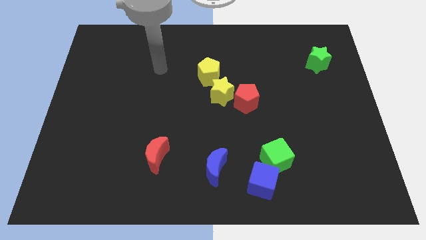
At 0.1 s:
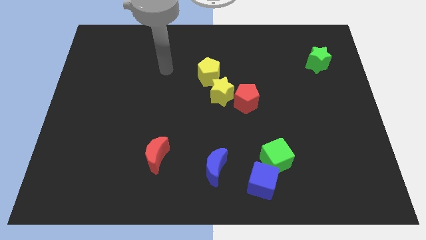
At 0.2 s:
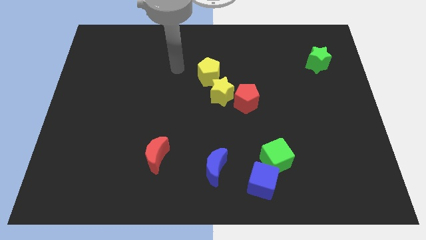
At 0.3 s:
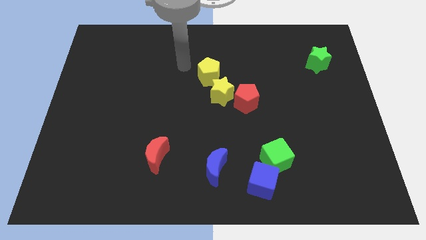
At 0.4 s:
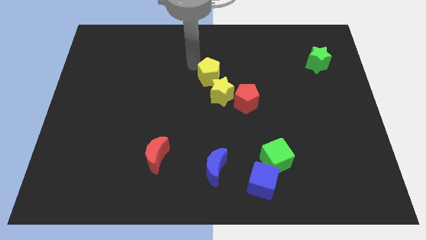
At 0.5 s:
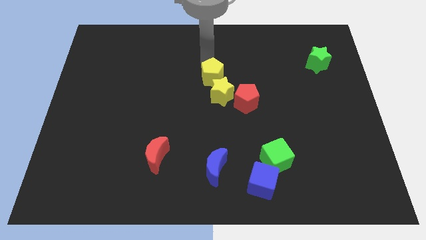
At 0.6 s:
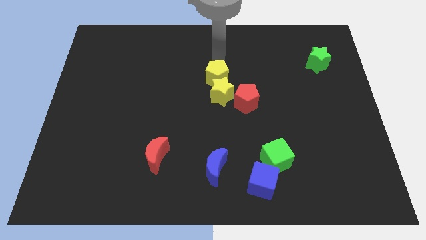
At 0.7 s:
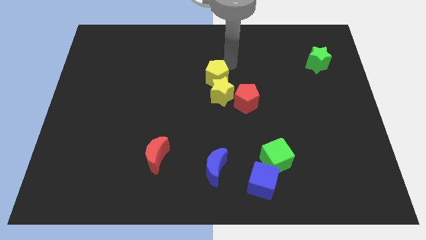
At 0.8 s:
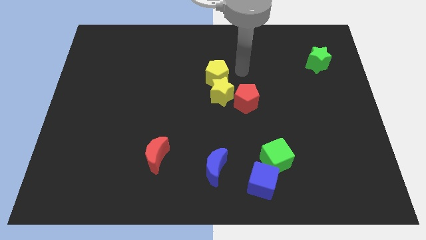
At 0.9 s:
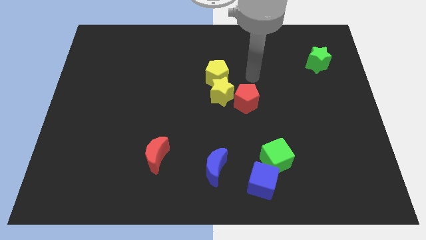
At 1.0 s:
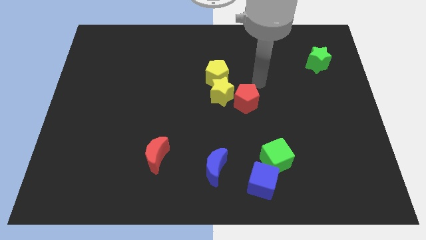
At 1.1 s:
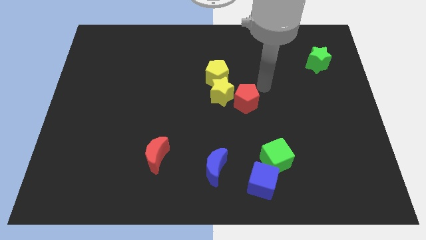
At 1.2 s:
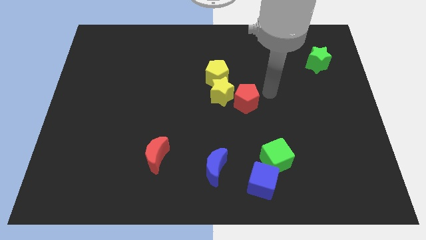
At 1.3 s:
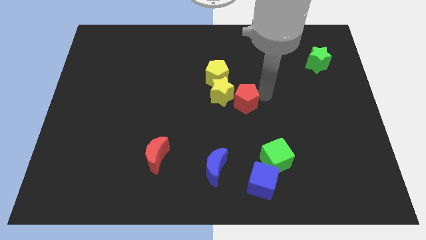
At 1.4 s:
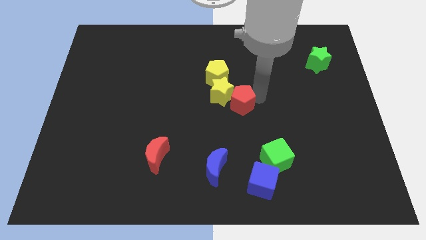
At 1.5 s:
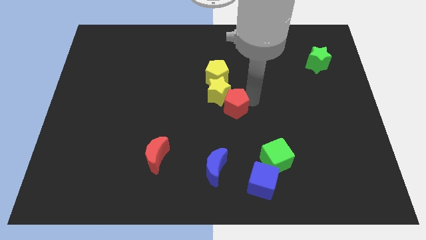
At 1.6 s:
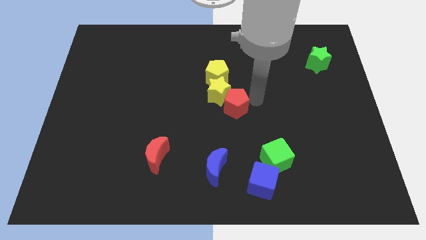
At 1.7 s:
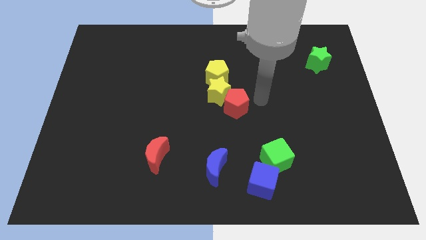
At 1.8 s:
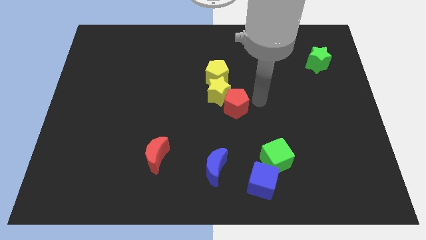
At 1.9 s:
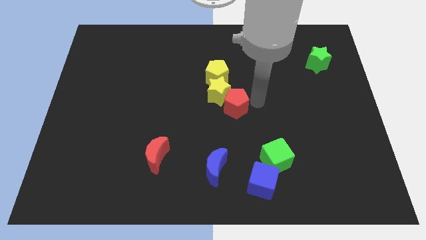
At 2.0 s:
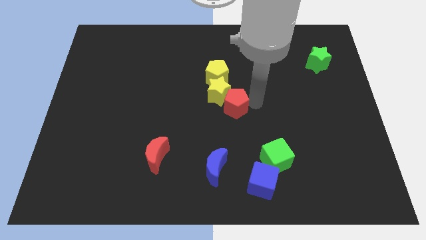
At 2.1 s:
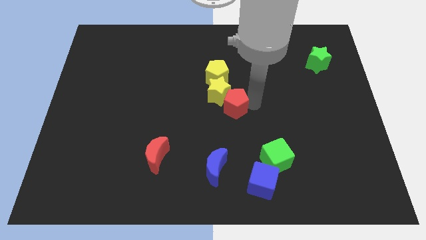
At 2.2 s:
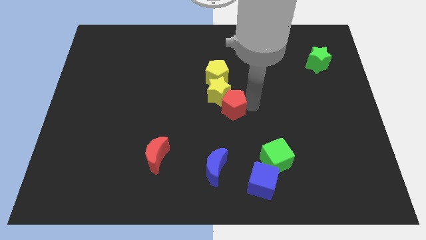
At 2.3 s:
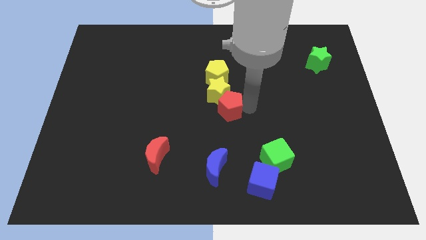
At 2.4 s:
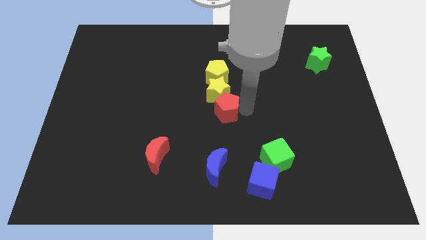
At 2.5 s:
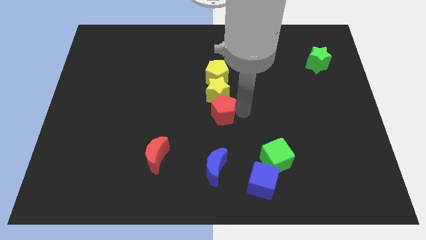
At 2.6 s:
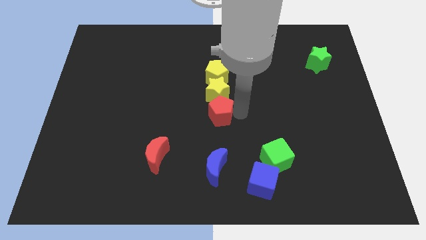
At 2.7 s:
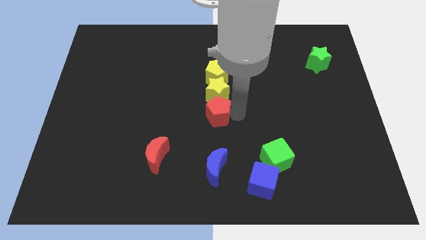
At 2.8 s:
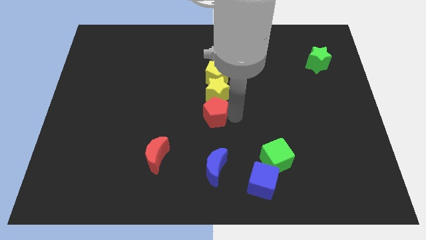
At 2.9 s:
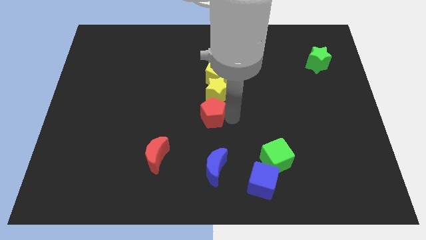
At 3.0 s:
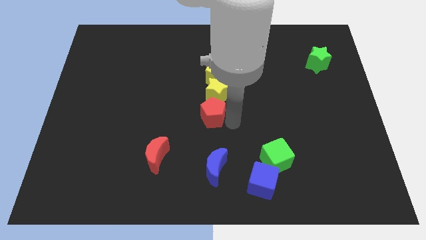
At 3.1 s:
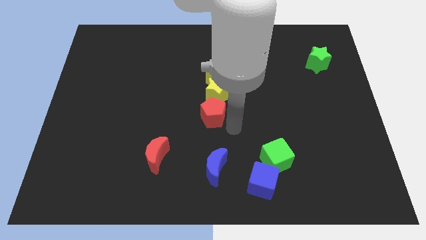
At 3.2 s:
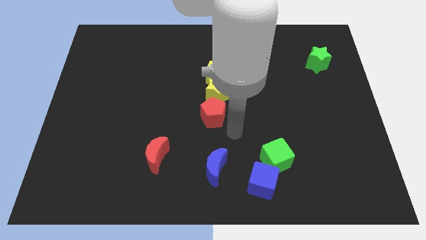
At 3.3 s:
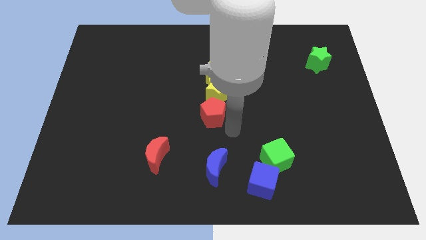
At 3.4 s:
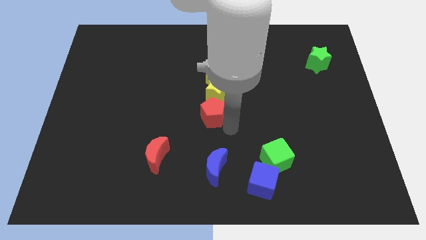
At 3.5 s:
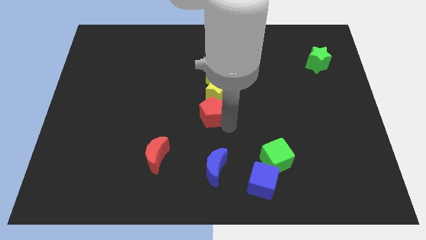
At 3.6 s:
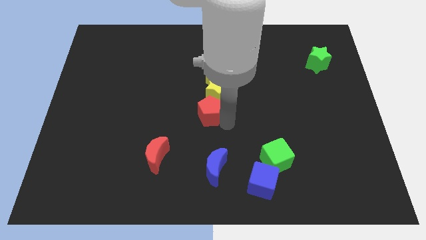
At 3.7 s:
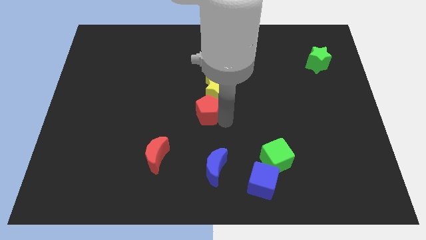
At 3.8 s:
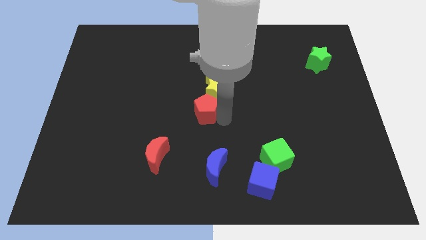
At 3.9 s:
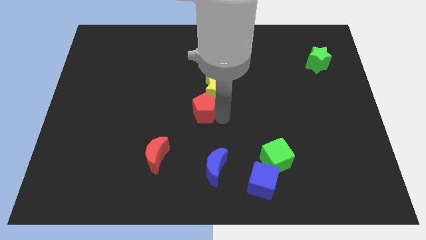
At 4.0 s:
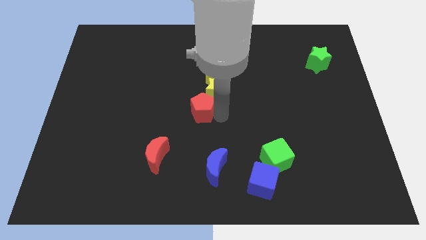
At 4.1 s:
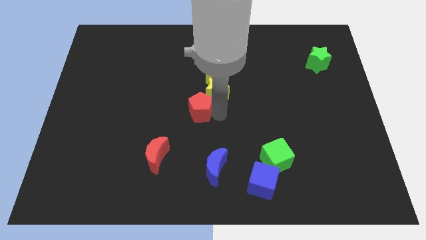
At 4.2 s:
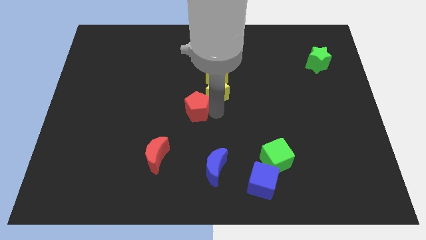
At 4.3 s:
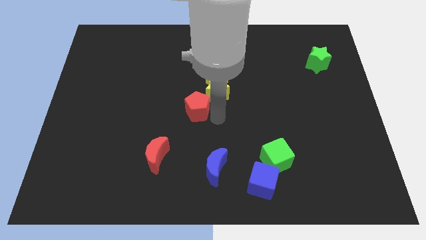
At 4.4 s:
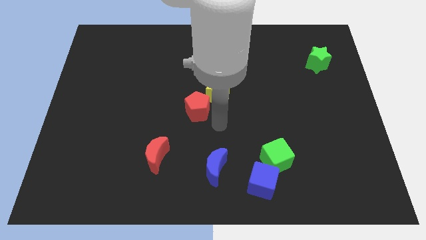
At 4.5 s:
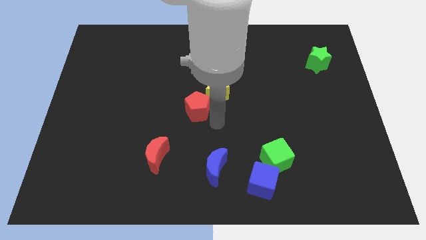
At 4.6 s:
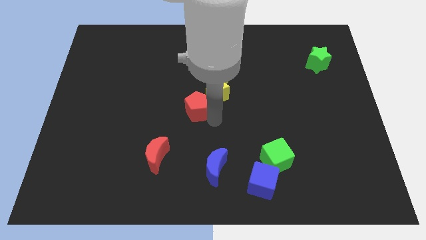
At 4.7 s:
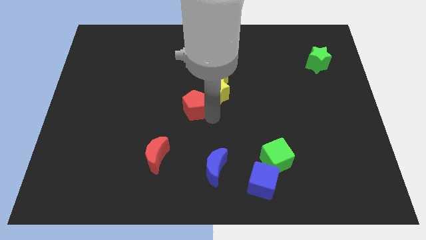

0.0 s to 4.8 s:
put the red pentagon to the left side of the yellow star

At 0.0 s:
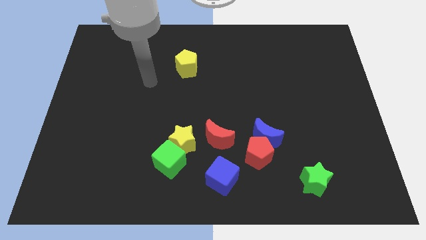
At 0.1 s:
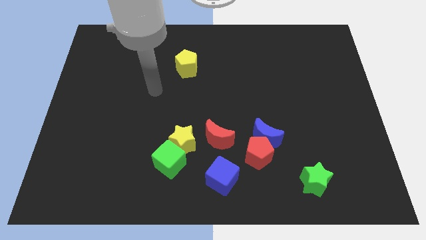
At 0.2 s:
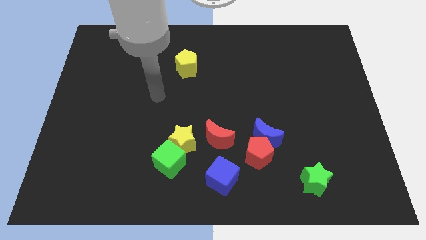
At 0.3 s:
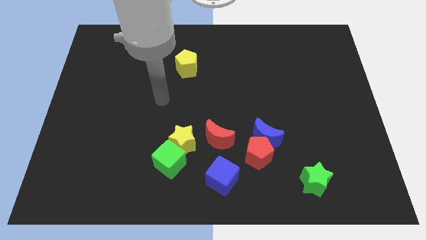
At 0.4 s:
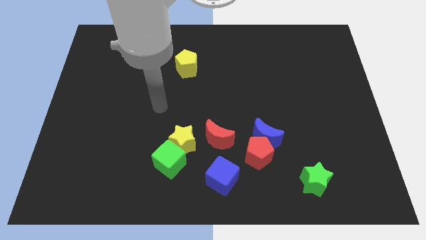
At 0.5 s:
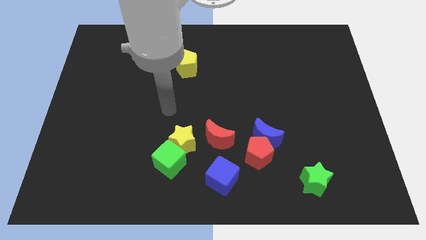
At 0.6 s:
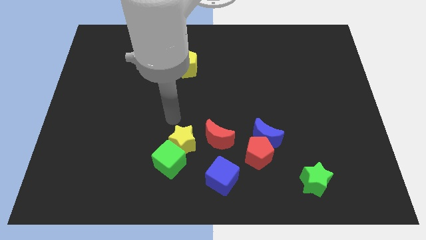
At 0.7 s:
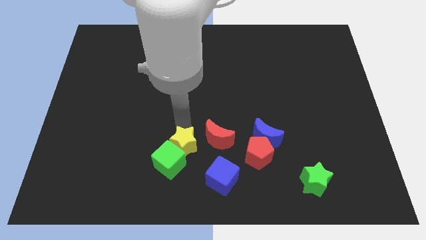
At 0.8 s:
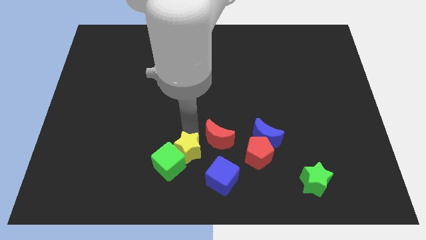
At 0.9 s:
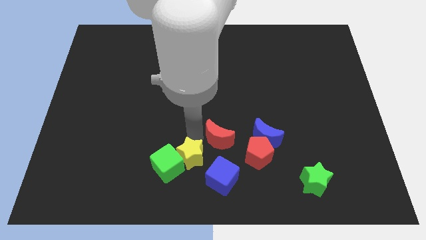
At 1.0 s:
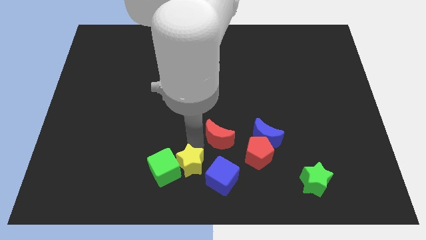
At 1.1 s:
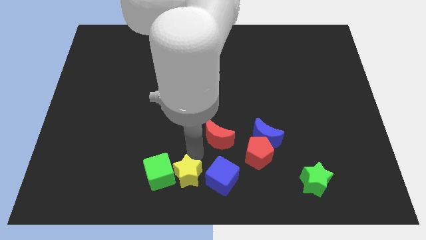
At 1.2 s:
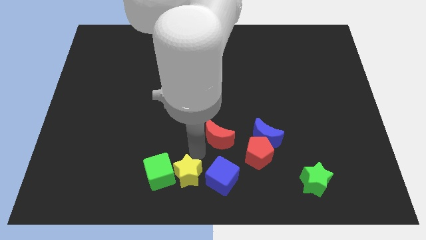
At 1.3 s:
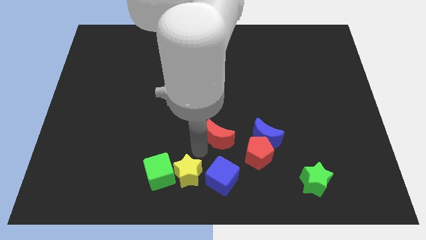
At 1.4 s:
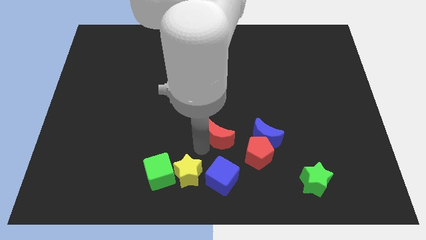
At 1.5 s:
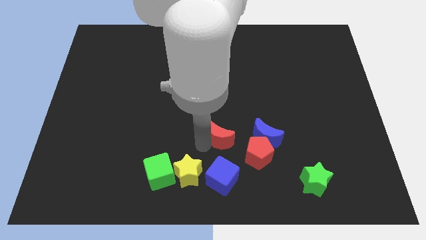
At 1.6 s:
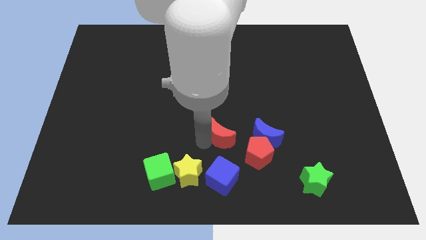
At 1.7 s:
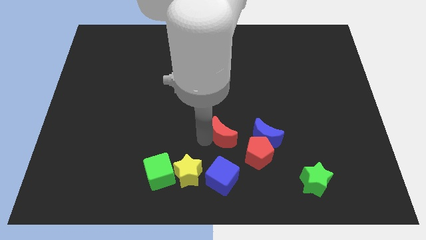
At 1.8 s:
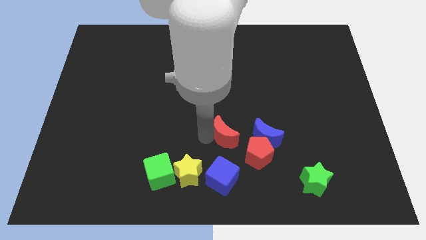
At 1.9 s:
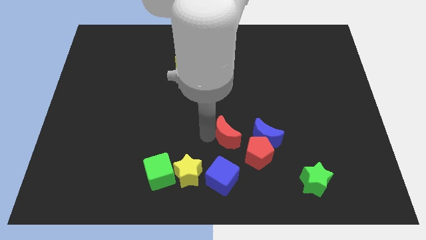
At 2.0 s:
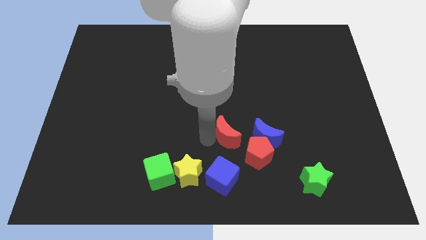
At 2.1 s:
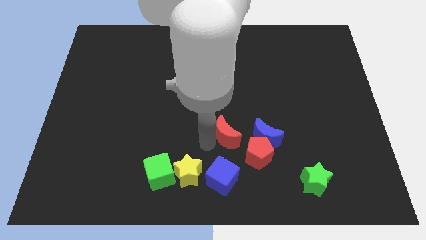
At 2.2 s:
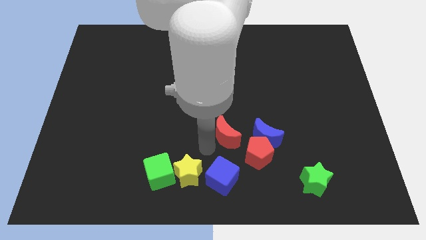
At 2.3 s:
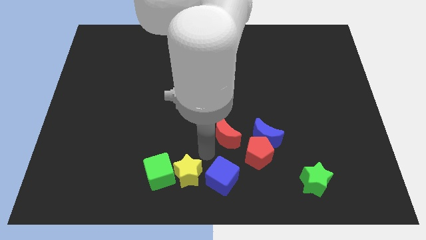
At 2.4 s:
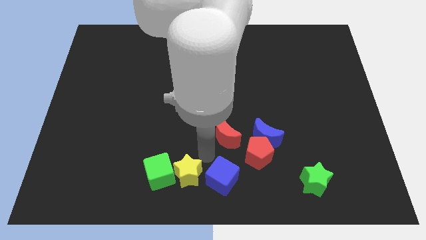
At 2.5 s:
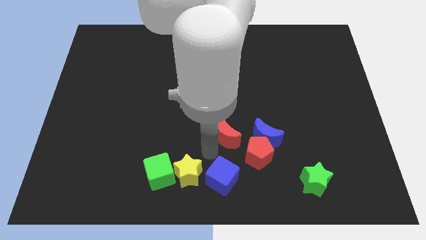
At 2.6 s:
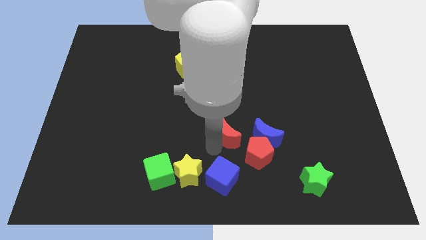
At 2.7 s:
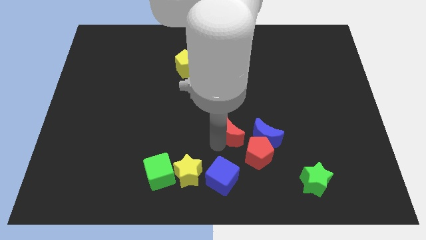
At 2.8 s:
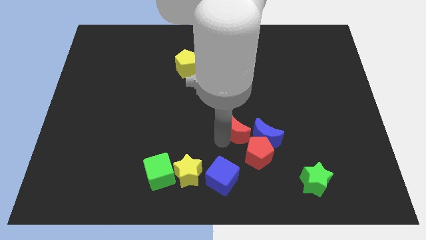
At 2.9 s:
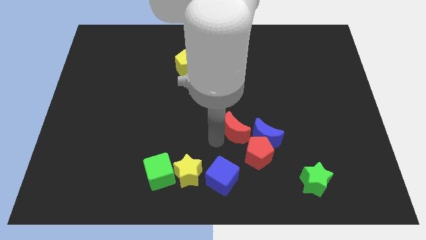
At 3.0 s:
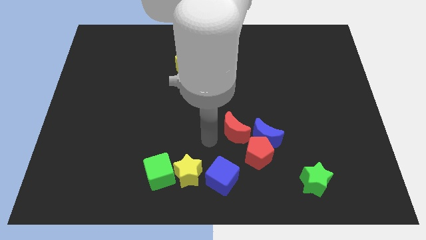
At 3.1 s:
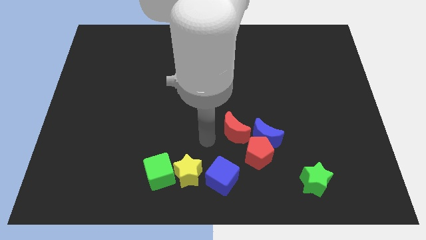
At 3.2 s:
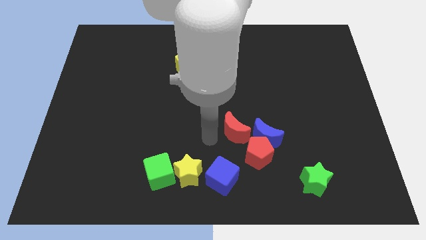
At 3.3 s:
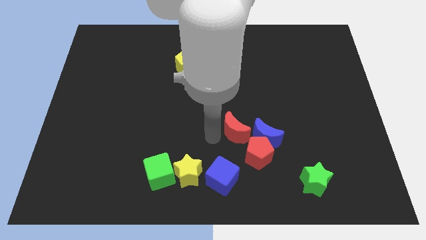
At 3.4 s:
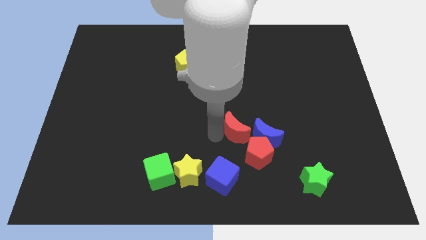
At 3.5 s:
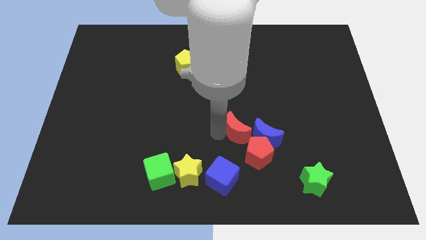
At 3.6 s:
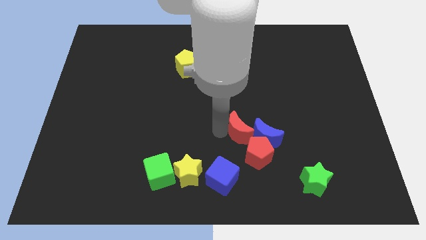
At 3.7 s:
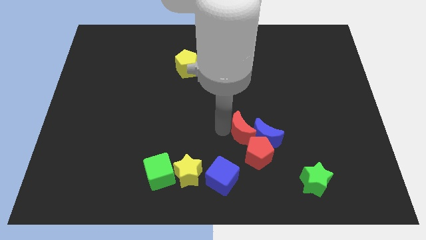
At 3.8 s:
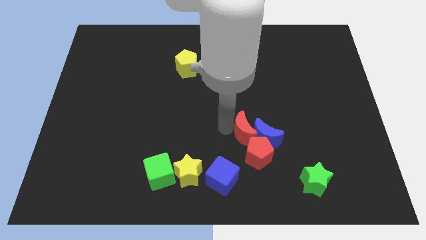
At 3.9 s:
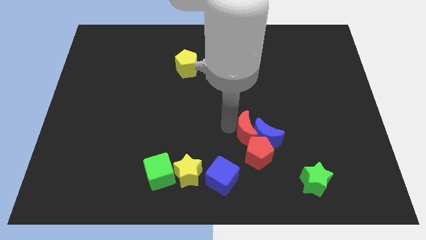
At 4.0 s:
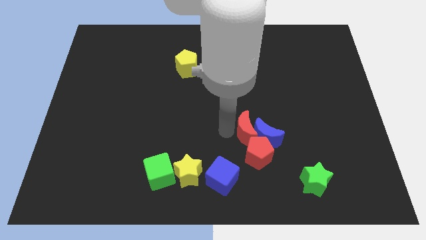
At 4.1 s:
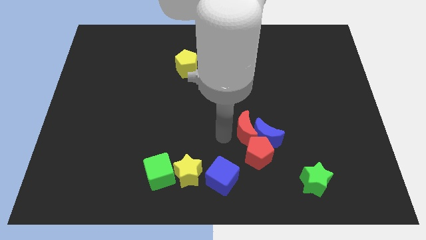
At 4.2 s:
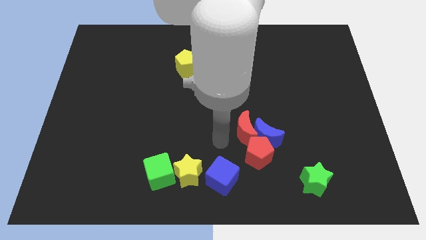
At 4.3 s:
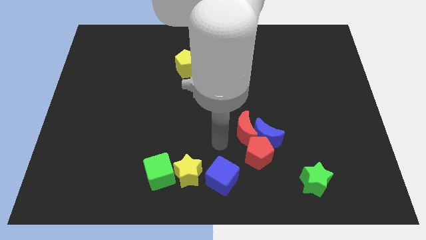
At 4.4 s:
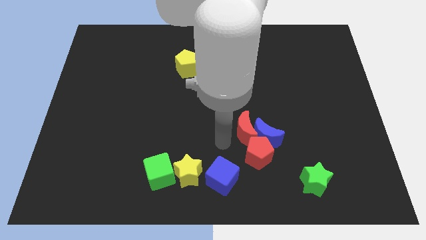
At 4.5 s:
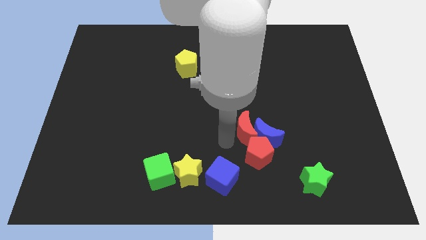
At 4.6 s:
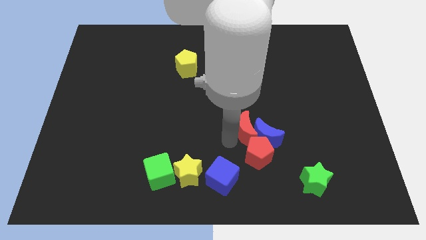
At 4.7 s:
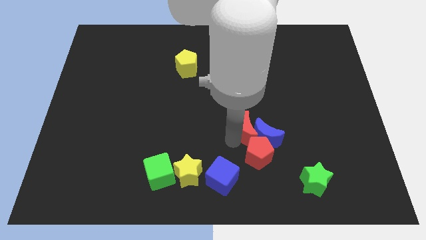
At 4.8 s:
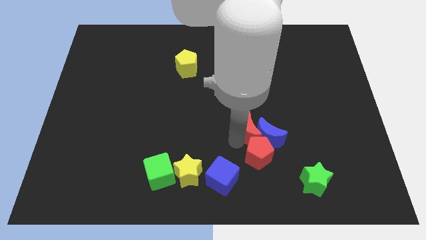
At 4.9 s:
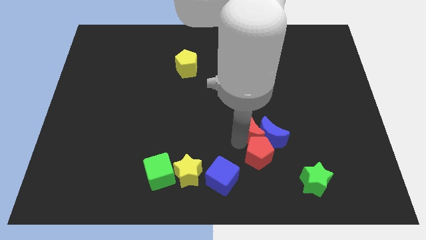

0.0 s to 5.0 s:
push the red moon diagonally up and to the right of the red pentagon
